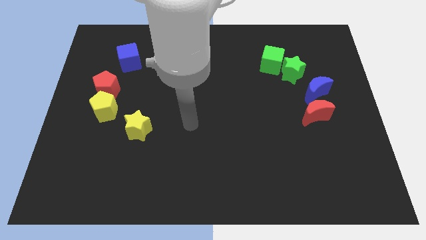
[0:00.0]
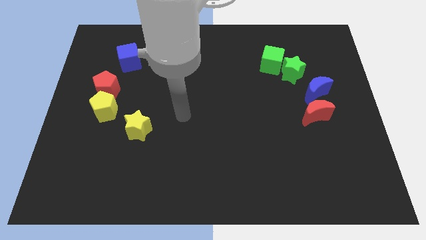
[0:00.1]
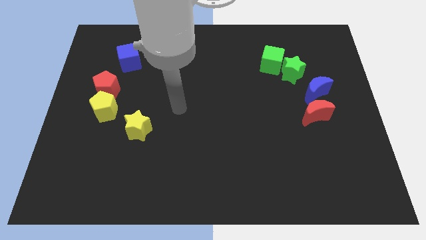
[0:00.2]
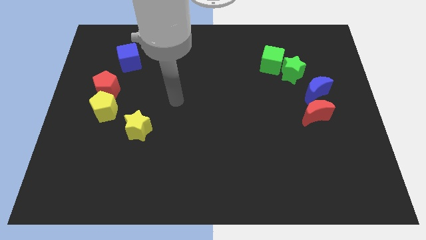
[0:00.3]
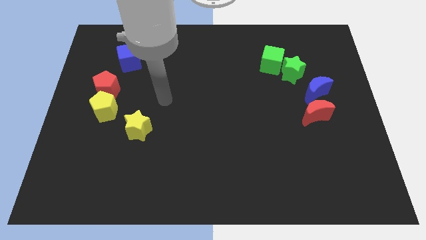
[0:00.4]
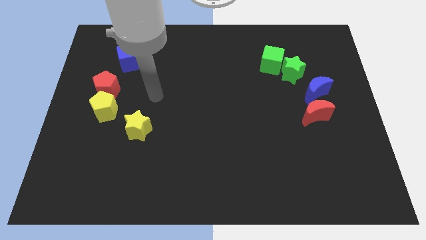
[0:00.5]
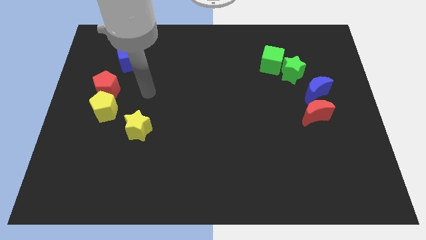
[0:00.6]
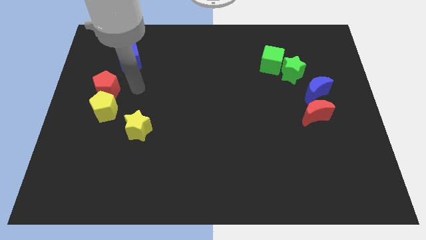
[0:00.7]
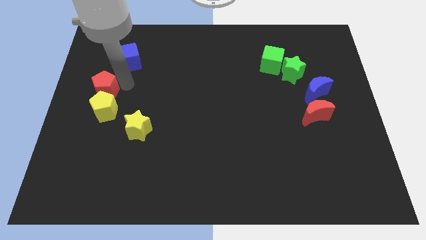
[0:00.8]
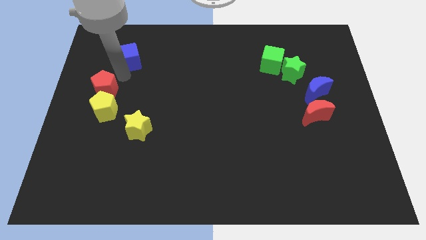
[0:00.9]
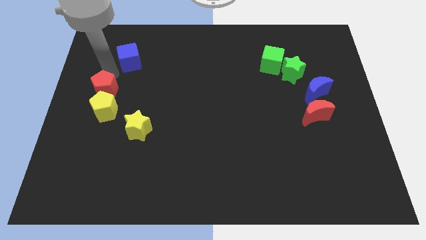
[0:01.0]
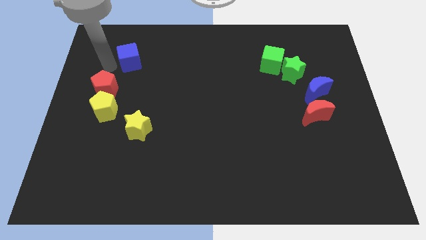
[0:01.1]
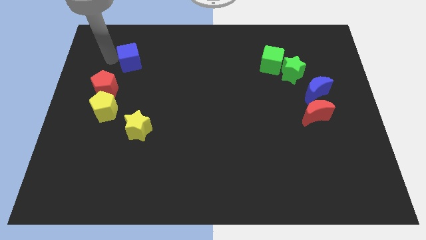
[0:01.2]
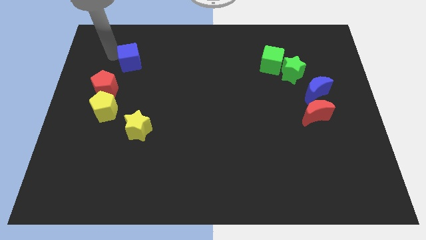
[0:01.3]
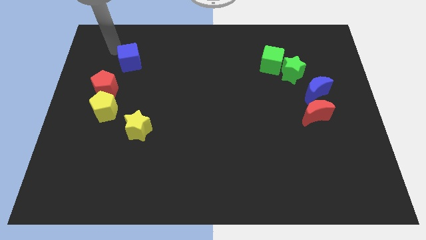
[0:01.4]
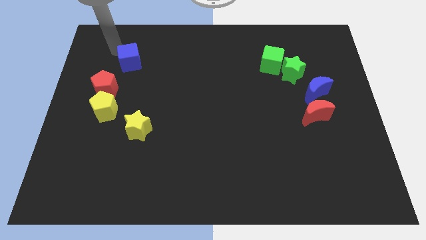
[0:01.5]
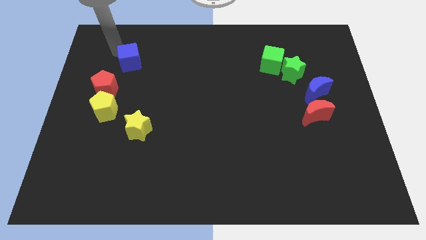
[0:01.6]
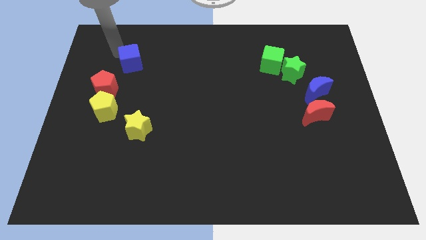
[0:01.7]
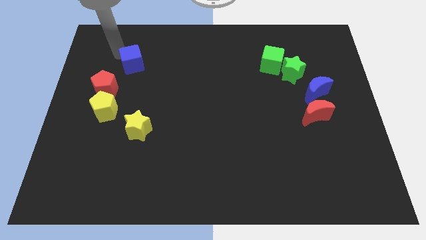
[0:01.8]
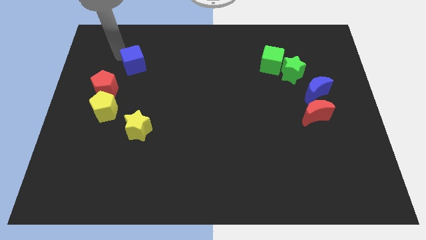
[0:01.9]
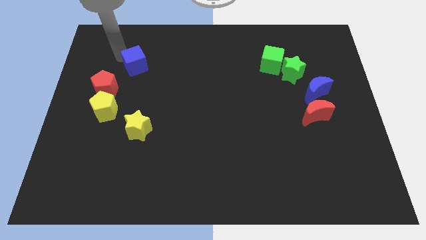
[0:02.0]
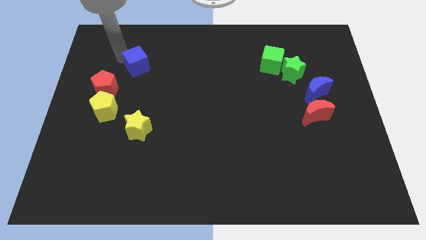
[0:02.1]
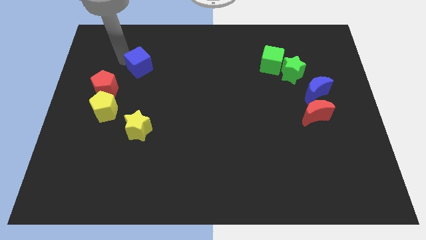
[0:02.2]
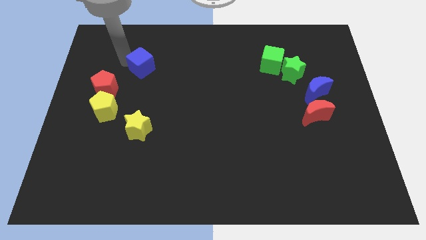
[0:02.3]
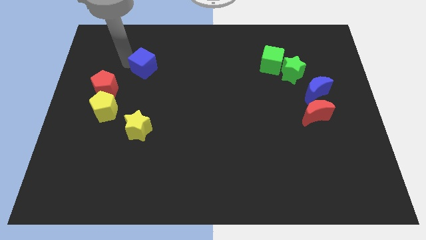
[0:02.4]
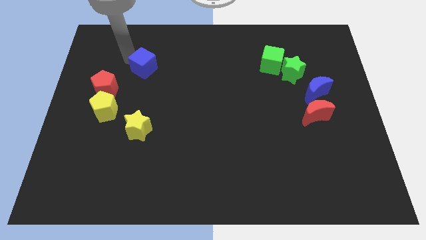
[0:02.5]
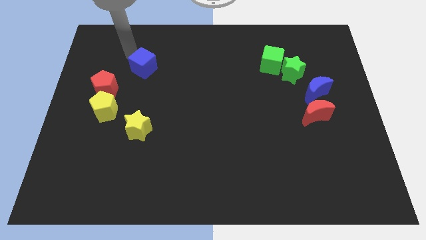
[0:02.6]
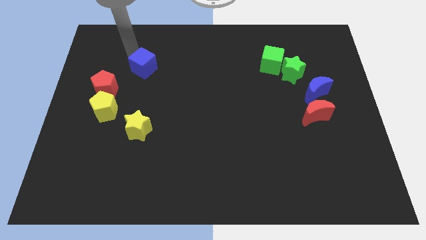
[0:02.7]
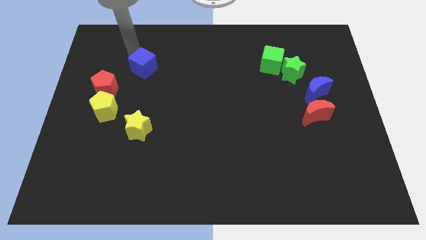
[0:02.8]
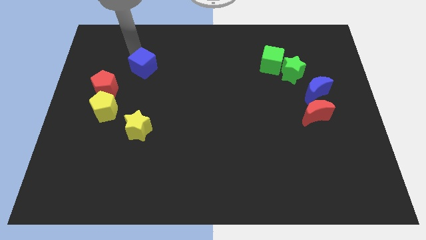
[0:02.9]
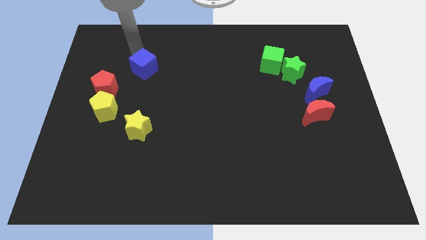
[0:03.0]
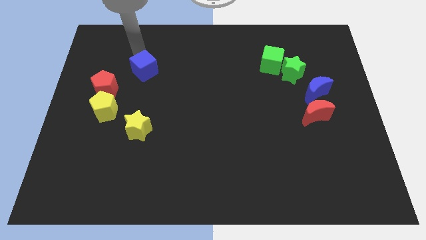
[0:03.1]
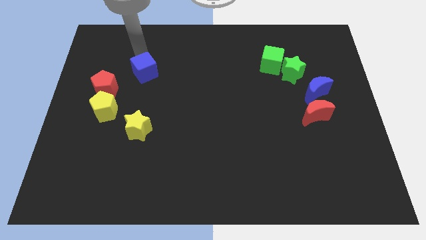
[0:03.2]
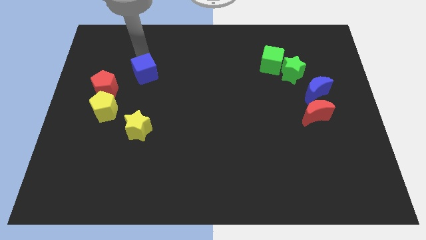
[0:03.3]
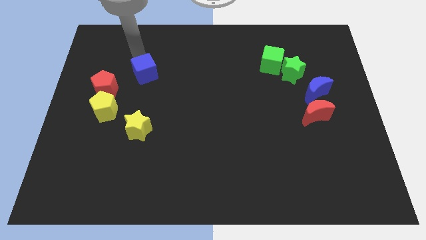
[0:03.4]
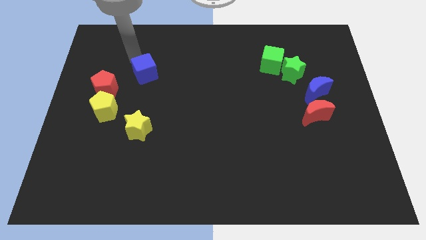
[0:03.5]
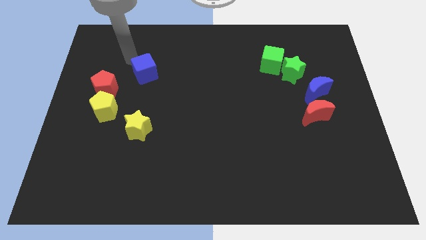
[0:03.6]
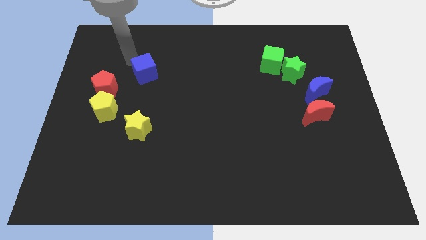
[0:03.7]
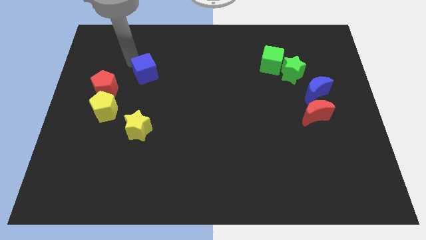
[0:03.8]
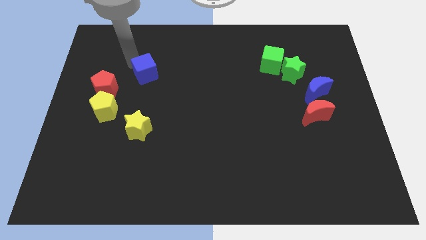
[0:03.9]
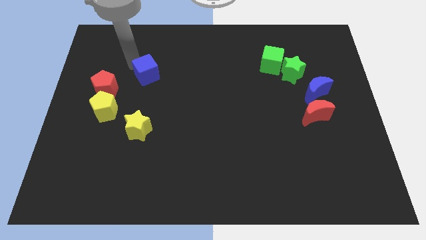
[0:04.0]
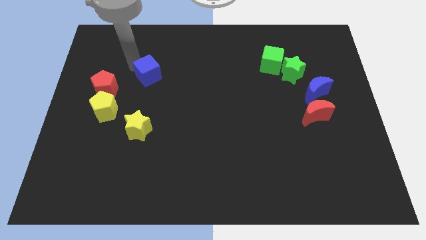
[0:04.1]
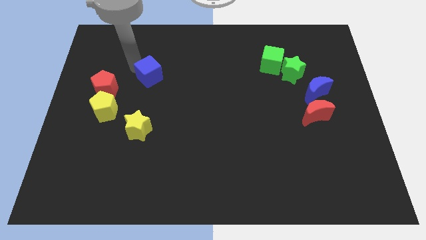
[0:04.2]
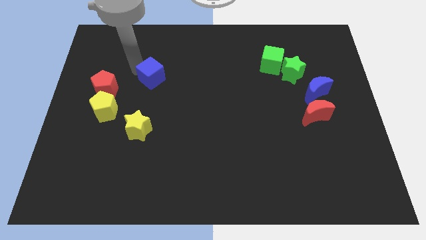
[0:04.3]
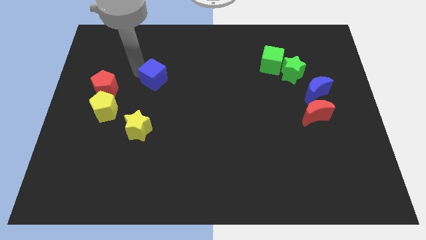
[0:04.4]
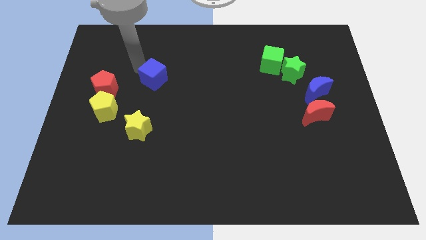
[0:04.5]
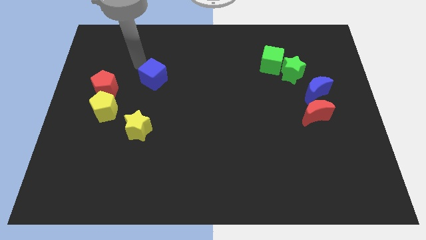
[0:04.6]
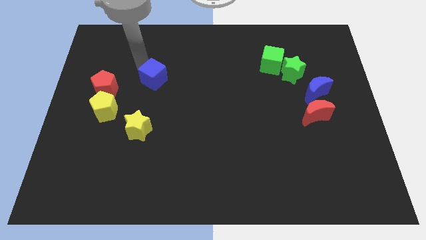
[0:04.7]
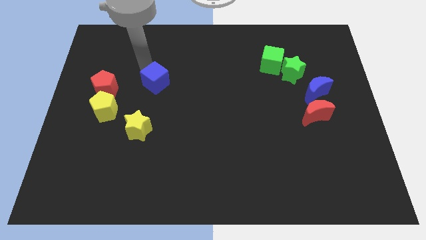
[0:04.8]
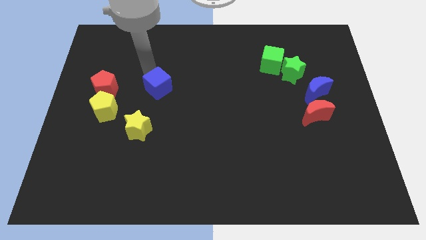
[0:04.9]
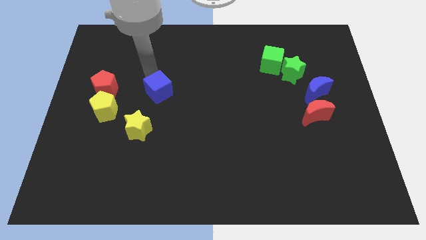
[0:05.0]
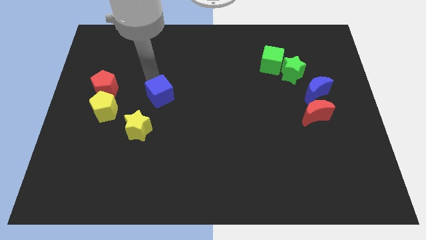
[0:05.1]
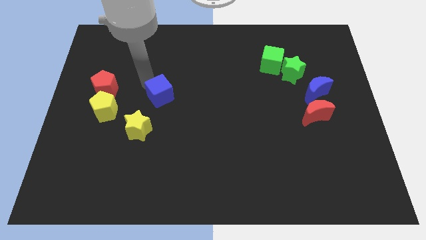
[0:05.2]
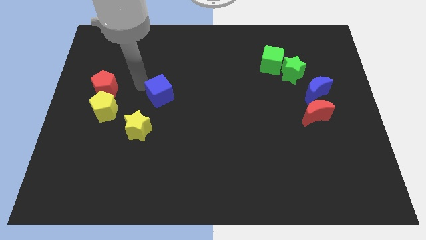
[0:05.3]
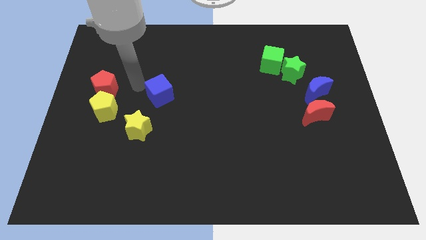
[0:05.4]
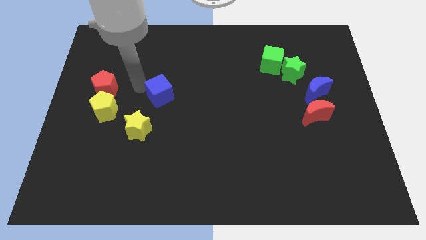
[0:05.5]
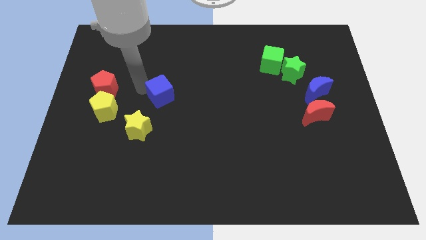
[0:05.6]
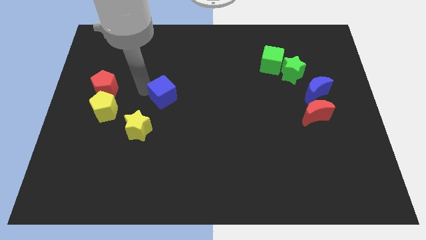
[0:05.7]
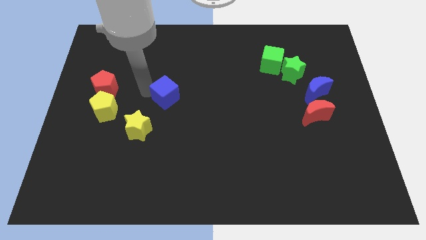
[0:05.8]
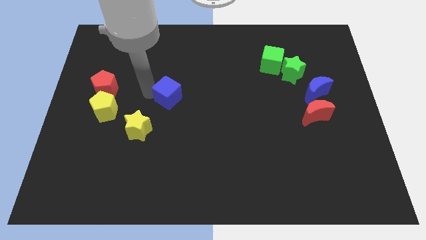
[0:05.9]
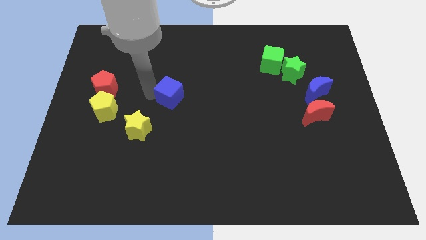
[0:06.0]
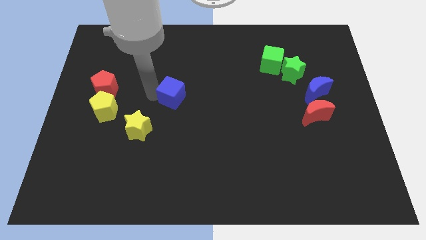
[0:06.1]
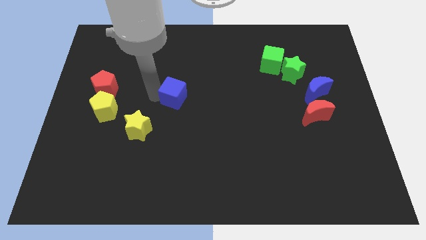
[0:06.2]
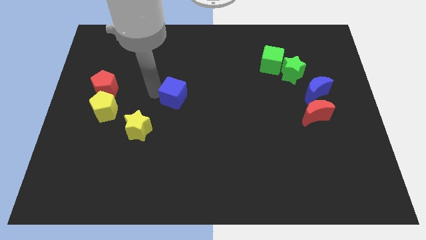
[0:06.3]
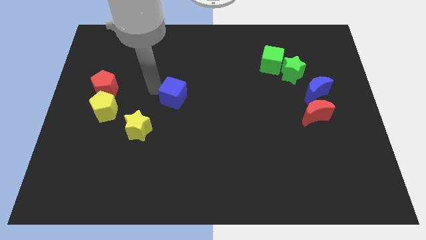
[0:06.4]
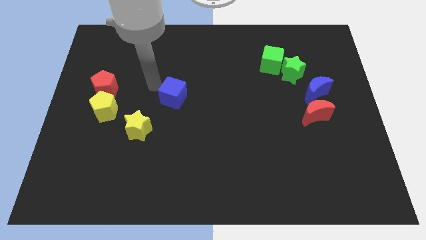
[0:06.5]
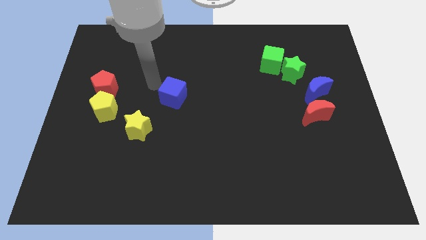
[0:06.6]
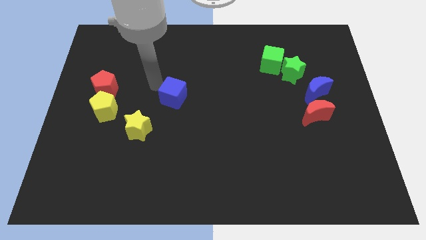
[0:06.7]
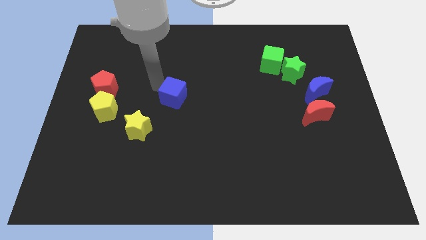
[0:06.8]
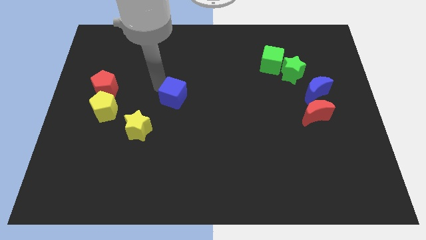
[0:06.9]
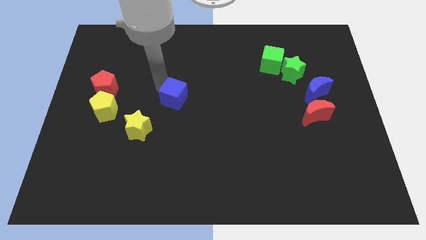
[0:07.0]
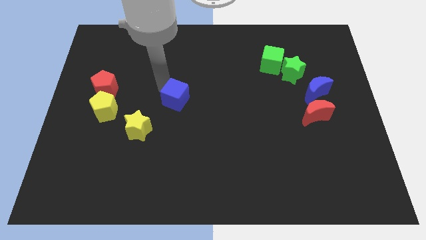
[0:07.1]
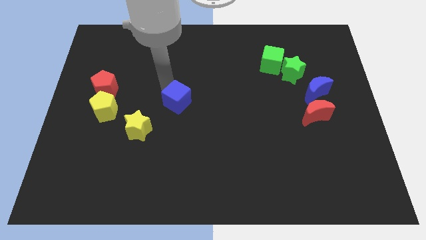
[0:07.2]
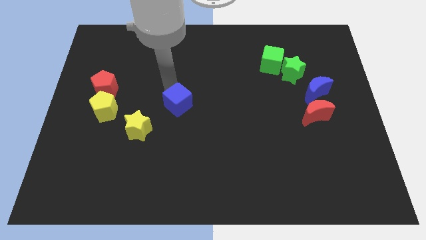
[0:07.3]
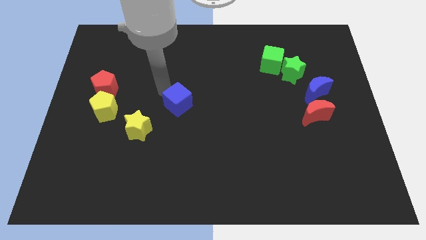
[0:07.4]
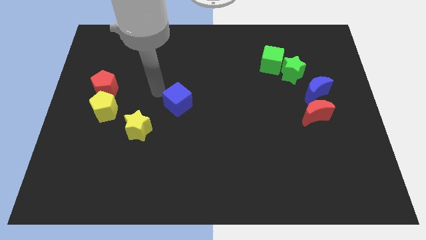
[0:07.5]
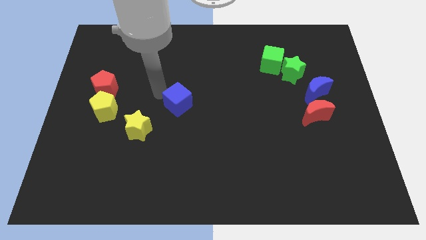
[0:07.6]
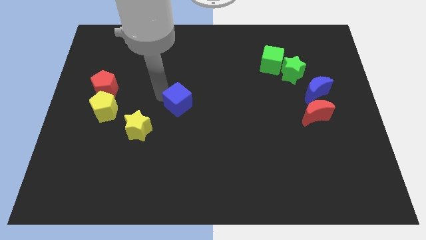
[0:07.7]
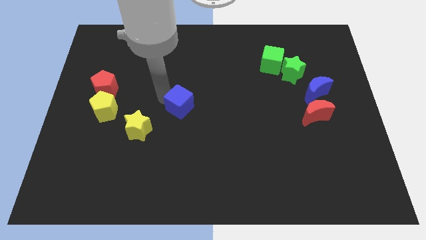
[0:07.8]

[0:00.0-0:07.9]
slide the blue cube downwards and right
